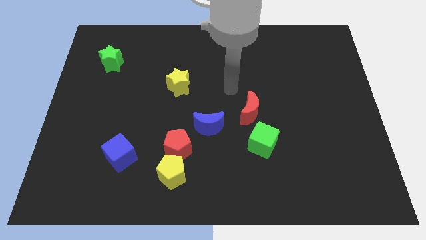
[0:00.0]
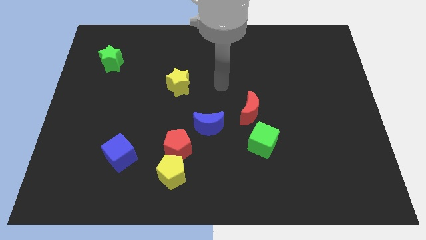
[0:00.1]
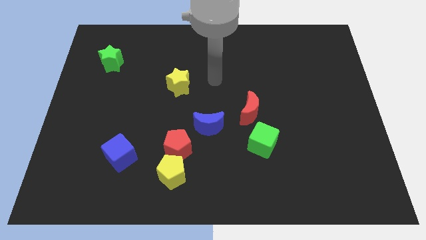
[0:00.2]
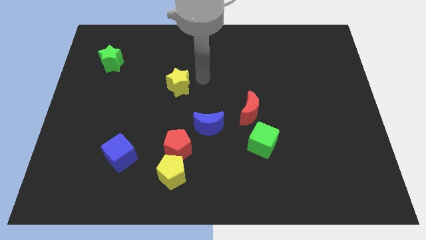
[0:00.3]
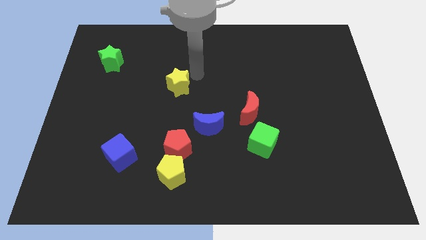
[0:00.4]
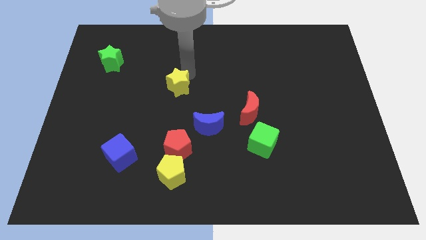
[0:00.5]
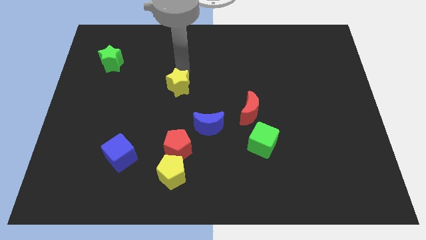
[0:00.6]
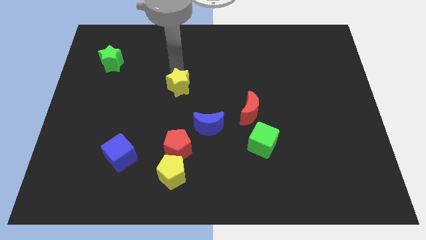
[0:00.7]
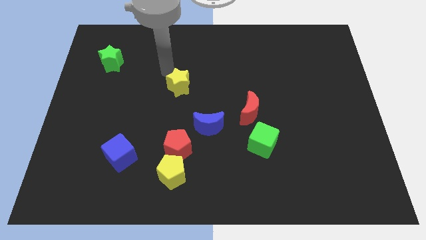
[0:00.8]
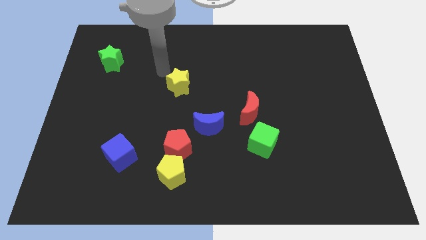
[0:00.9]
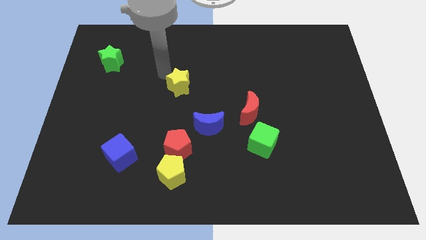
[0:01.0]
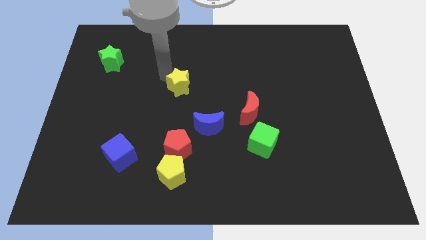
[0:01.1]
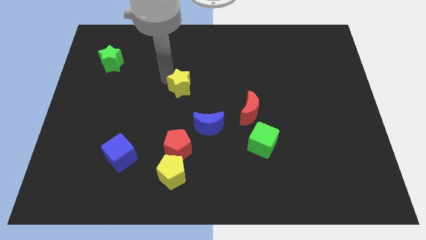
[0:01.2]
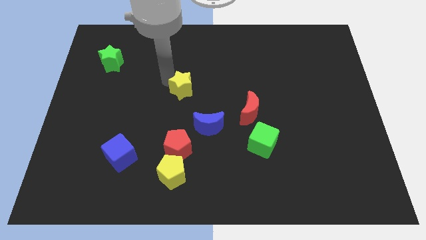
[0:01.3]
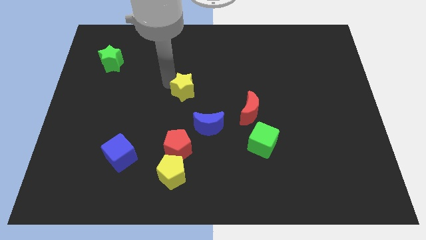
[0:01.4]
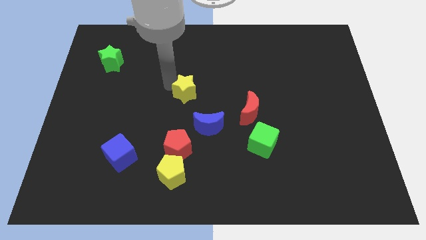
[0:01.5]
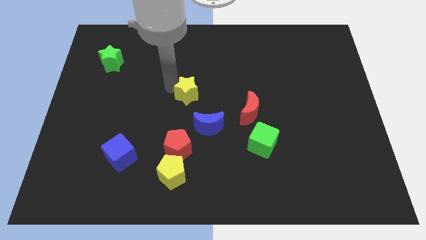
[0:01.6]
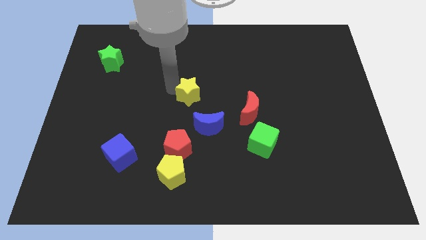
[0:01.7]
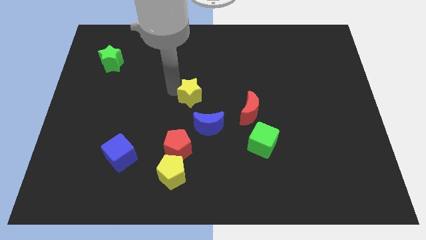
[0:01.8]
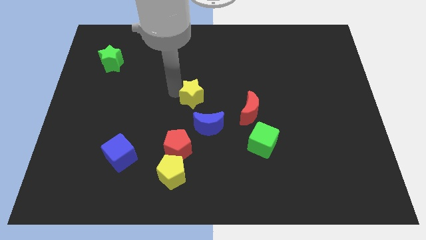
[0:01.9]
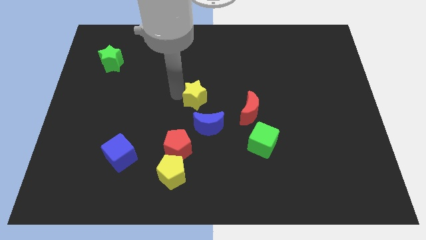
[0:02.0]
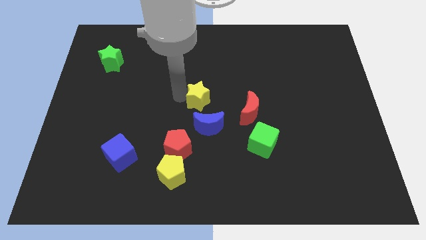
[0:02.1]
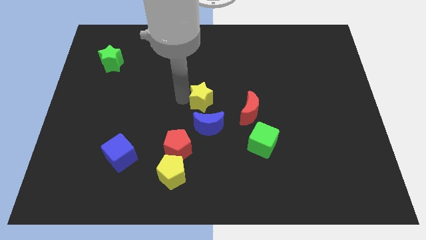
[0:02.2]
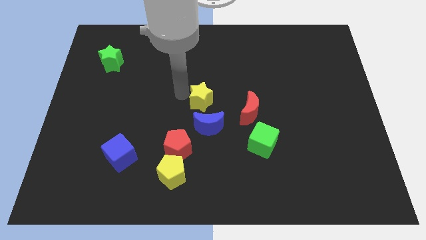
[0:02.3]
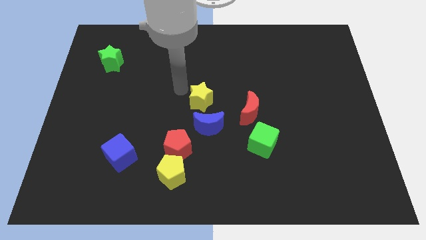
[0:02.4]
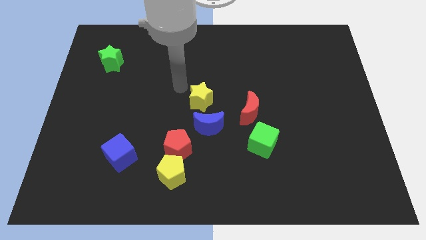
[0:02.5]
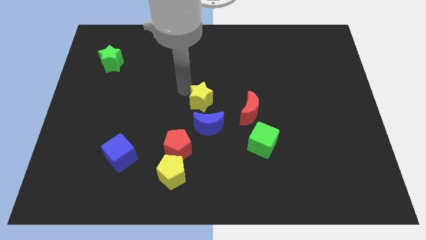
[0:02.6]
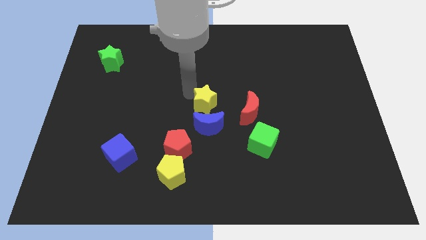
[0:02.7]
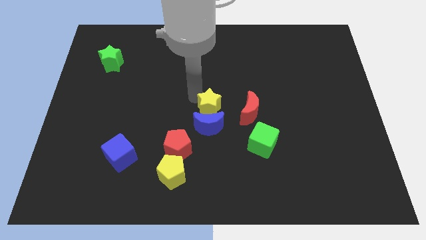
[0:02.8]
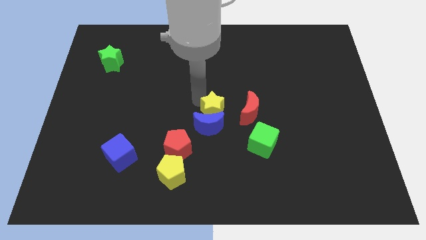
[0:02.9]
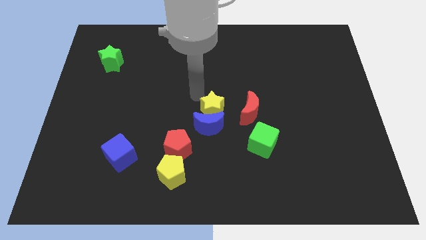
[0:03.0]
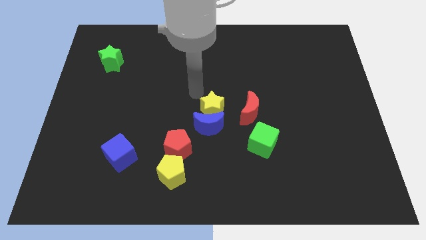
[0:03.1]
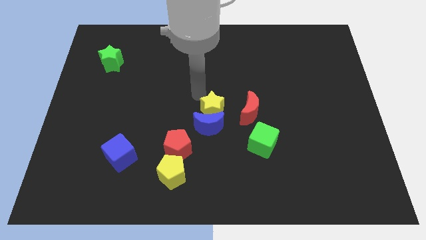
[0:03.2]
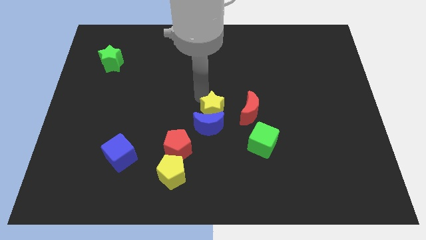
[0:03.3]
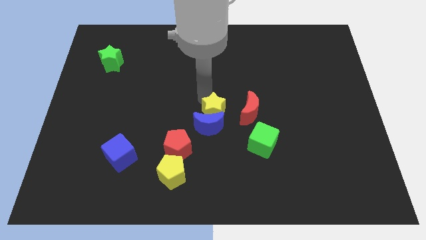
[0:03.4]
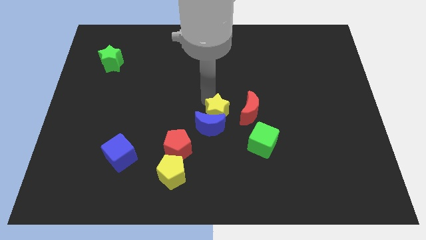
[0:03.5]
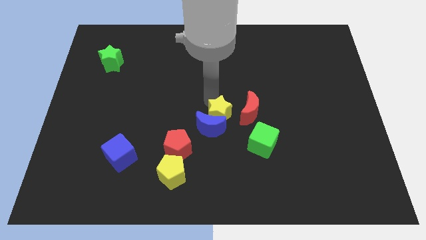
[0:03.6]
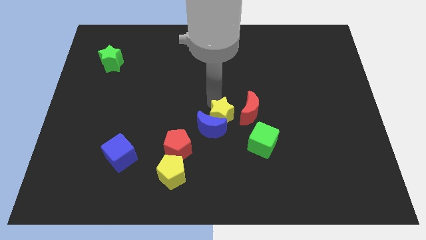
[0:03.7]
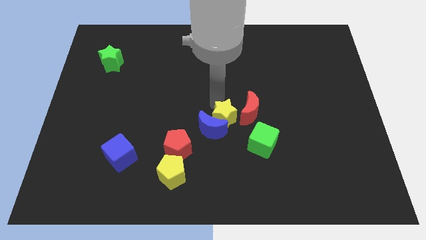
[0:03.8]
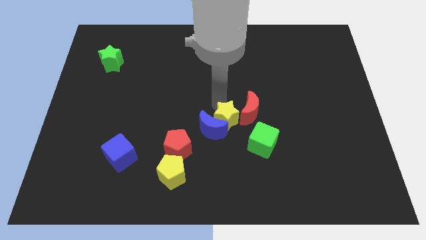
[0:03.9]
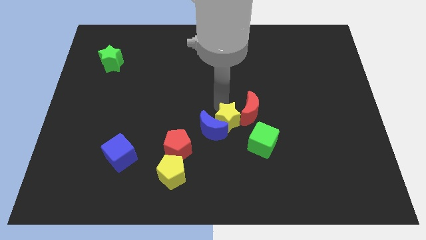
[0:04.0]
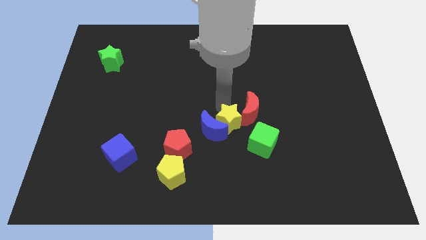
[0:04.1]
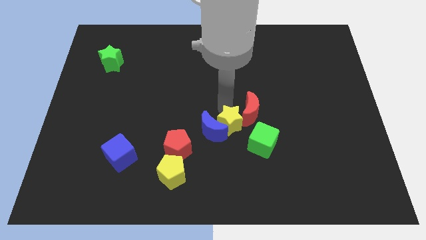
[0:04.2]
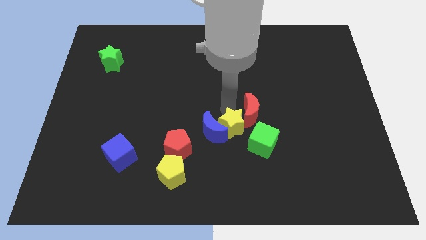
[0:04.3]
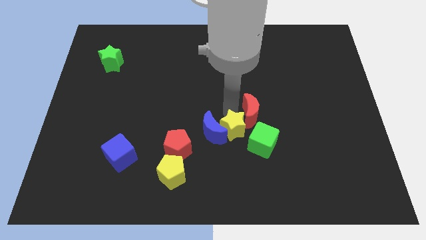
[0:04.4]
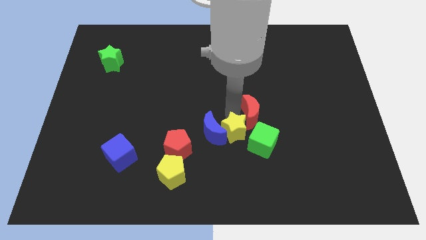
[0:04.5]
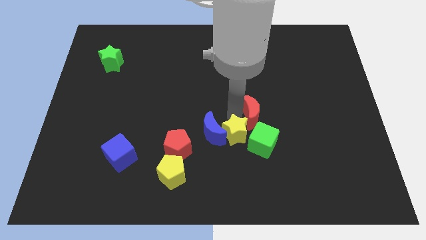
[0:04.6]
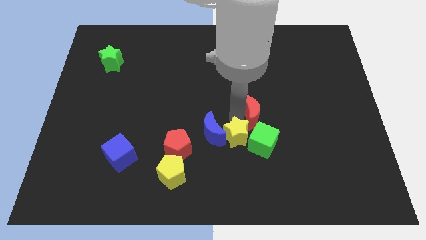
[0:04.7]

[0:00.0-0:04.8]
move the yellow star diagonally down and to the right

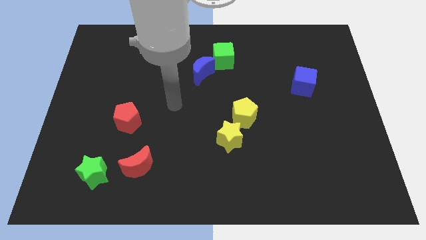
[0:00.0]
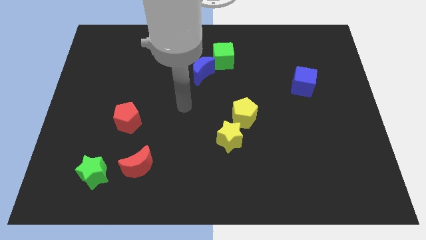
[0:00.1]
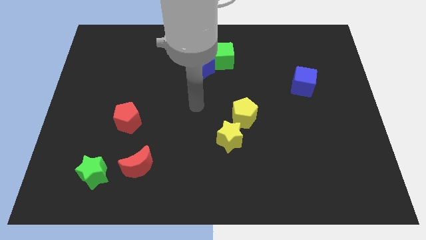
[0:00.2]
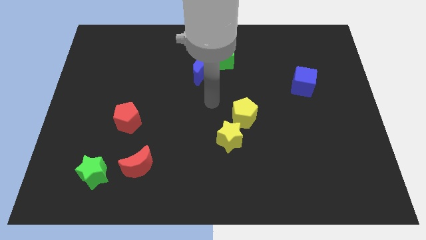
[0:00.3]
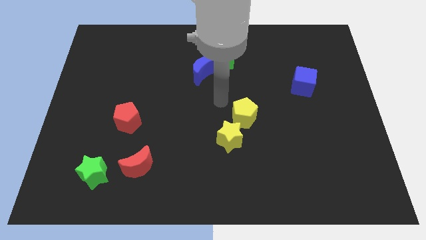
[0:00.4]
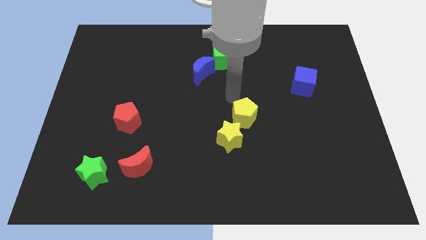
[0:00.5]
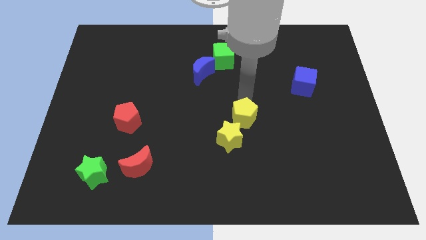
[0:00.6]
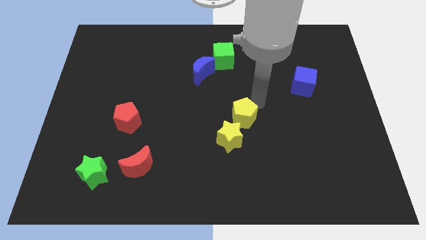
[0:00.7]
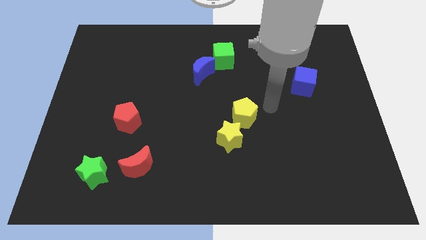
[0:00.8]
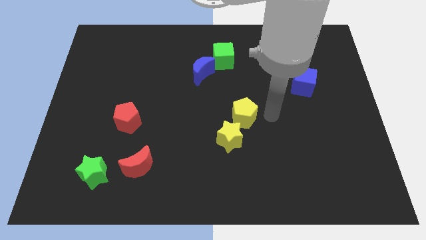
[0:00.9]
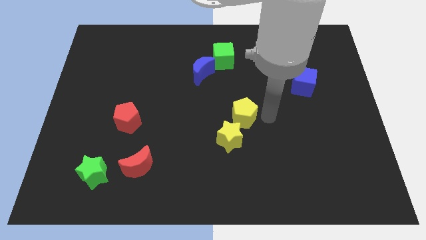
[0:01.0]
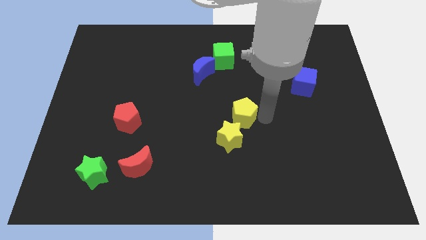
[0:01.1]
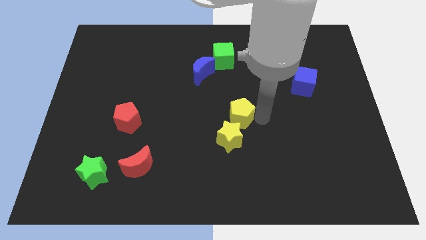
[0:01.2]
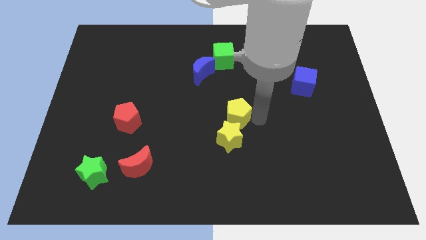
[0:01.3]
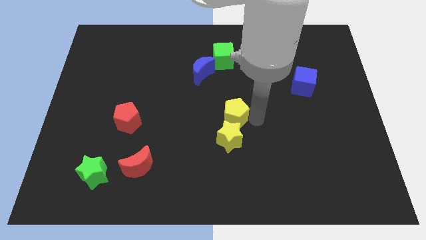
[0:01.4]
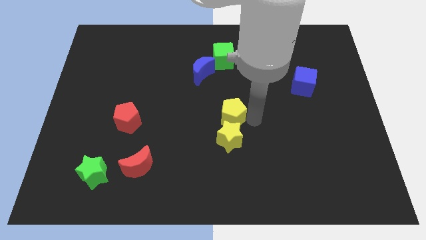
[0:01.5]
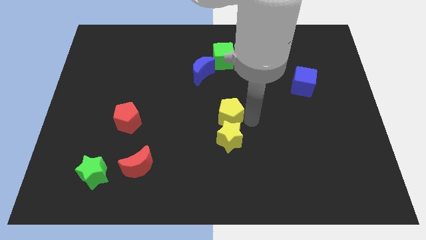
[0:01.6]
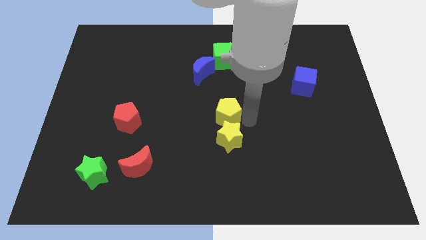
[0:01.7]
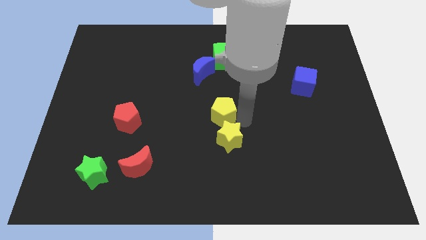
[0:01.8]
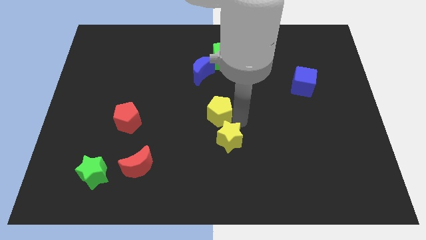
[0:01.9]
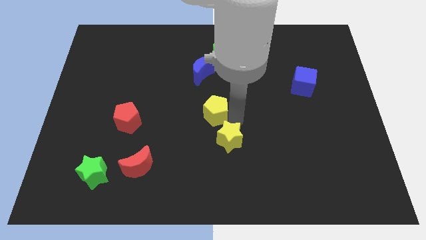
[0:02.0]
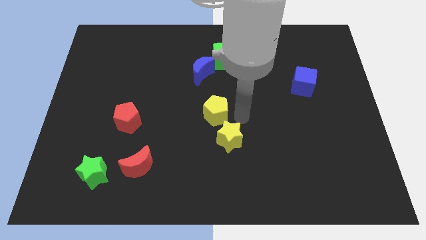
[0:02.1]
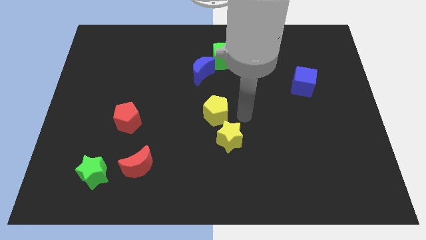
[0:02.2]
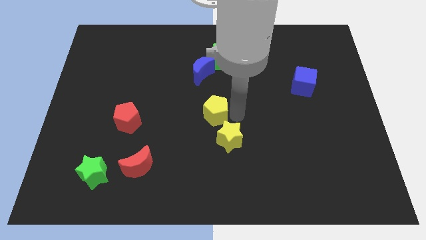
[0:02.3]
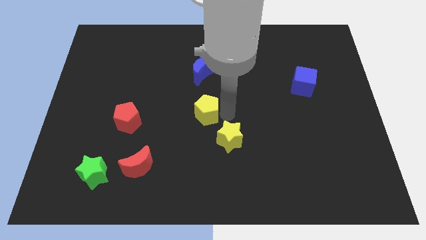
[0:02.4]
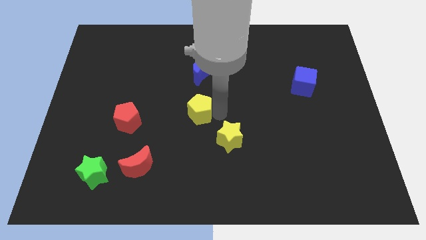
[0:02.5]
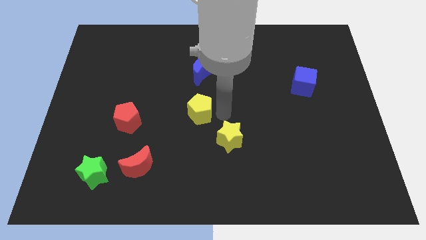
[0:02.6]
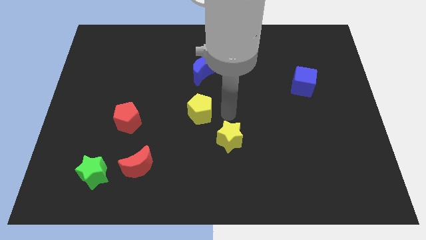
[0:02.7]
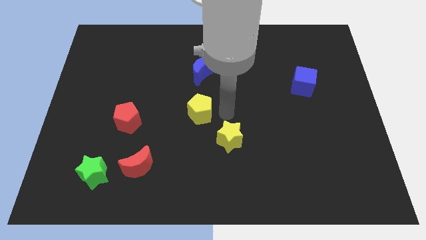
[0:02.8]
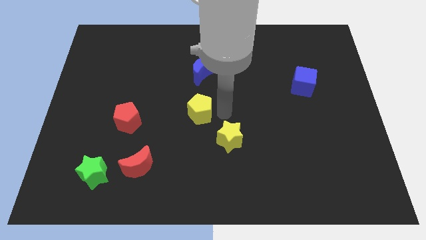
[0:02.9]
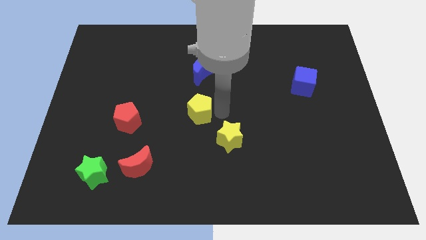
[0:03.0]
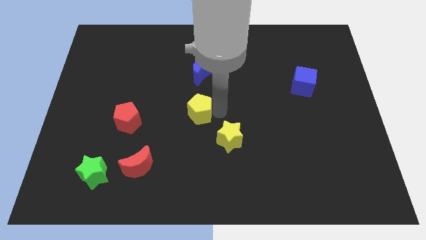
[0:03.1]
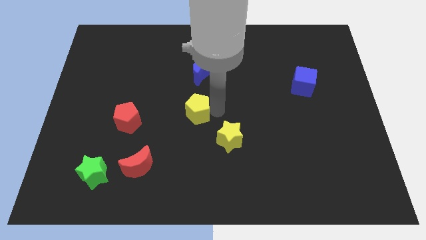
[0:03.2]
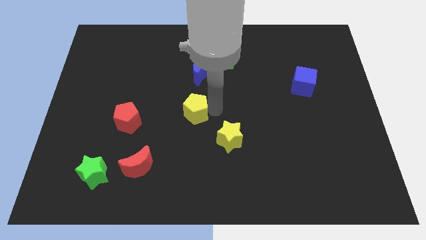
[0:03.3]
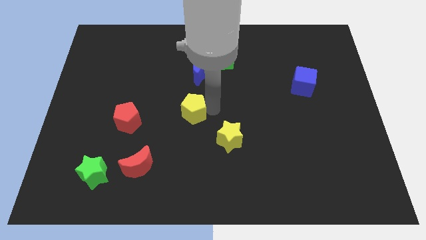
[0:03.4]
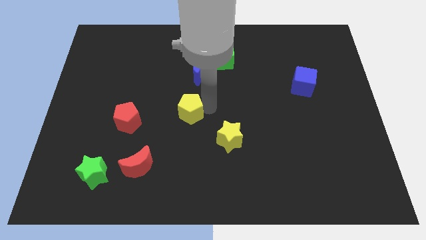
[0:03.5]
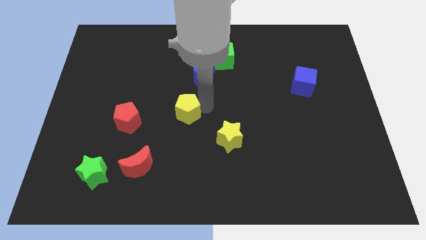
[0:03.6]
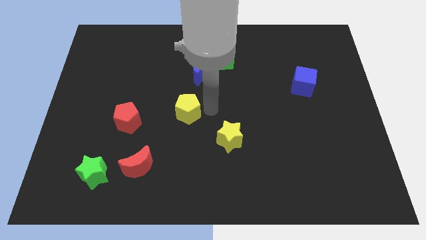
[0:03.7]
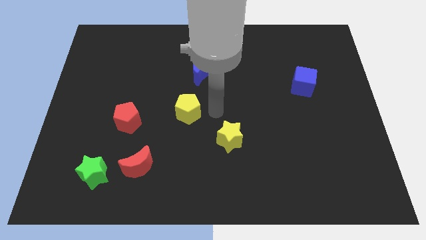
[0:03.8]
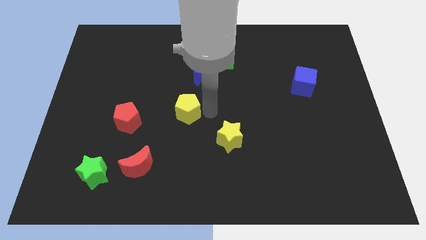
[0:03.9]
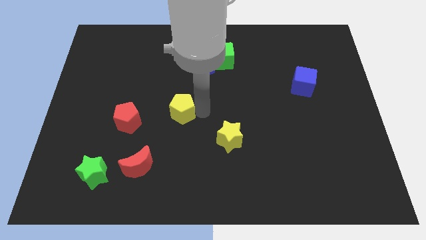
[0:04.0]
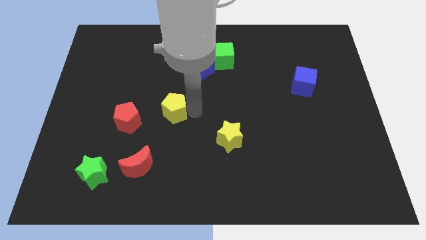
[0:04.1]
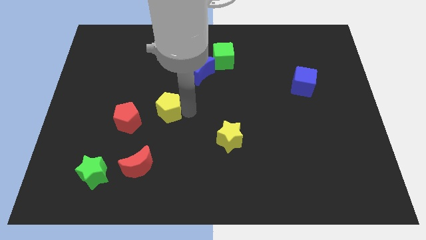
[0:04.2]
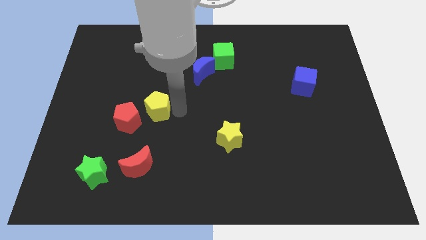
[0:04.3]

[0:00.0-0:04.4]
slide the yellow pentagon left
